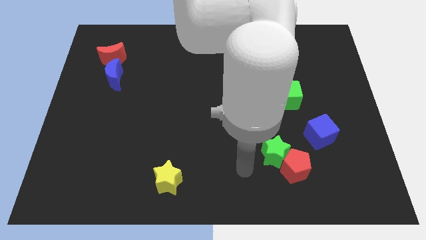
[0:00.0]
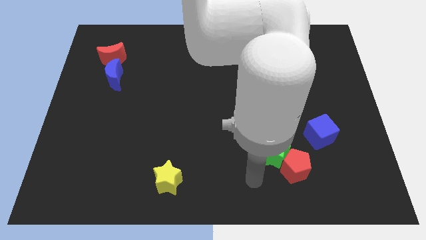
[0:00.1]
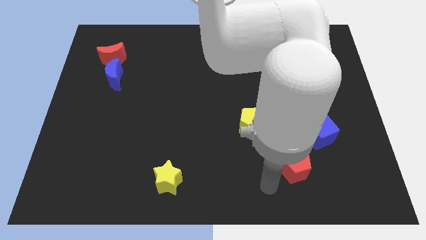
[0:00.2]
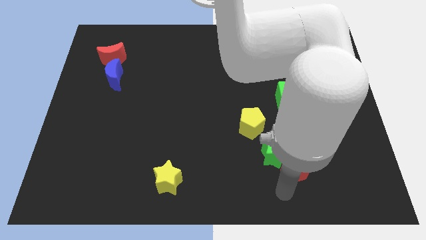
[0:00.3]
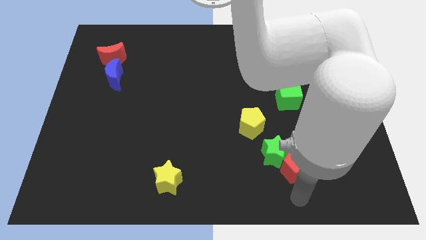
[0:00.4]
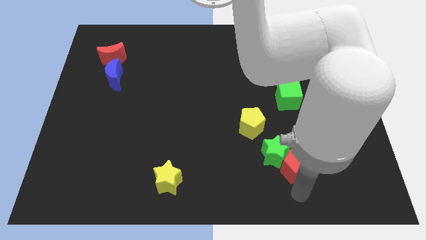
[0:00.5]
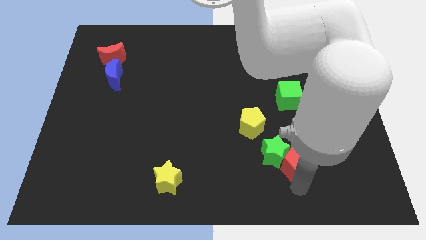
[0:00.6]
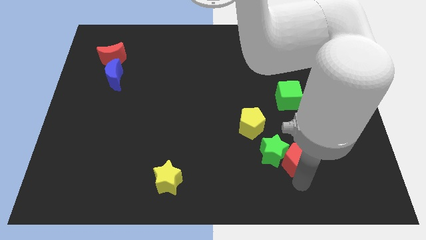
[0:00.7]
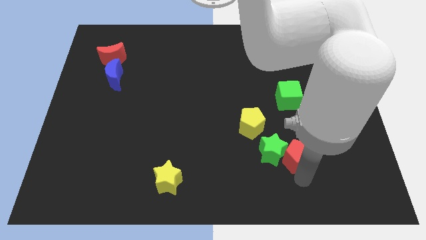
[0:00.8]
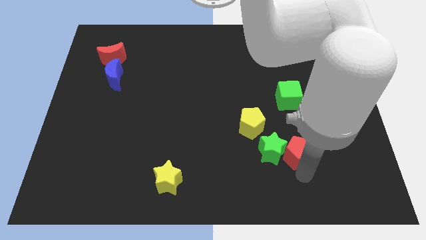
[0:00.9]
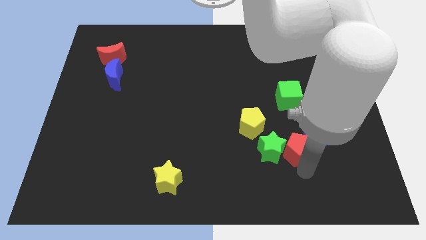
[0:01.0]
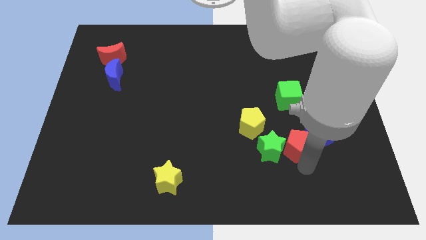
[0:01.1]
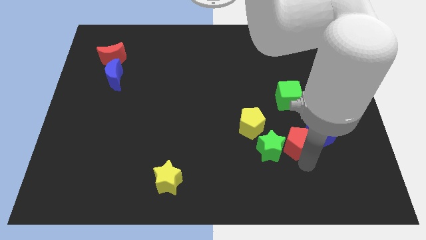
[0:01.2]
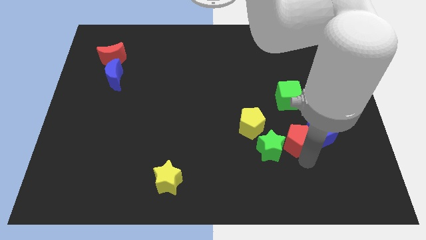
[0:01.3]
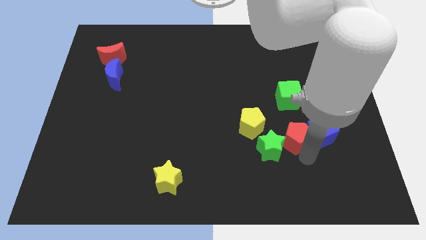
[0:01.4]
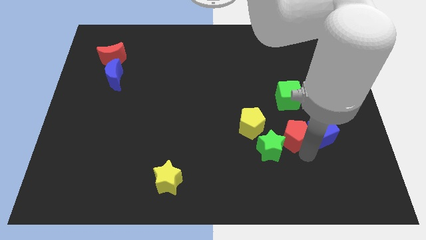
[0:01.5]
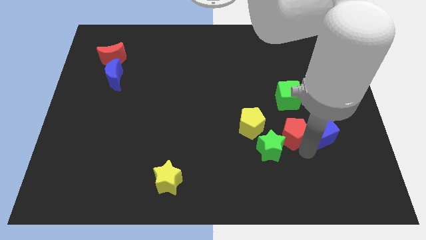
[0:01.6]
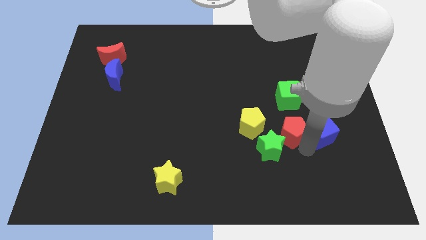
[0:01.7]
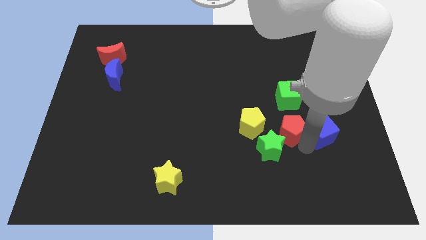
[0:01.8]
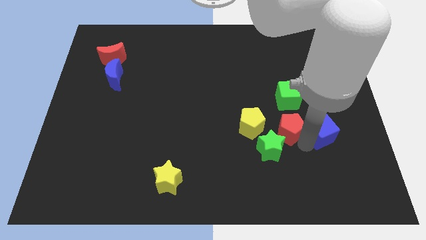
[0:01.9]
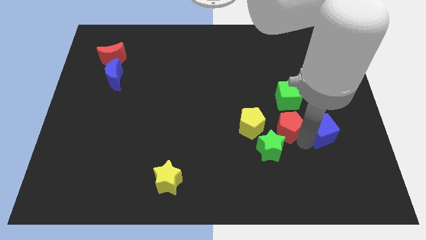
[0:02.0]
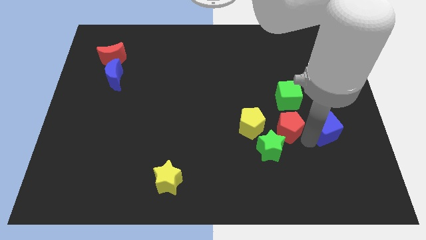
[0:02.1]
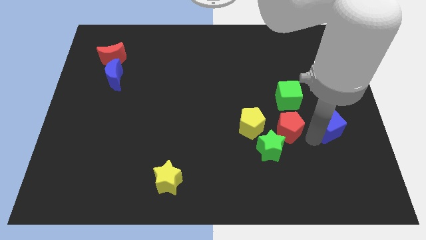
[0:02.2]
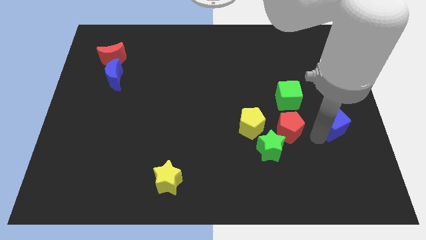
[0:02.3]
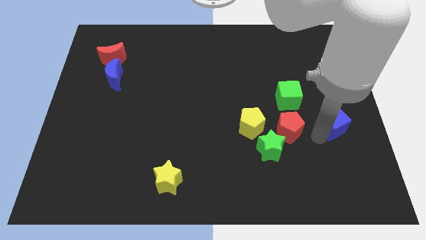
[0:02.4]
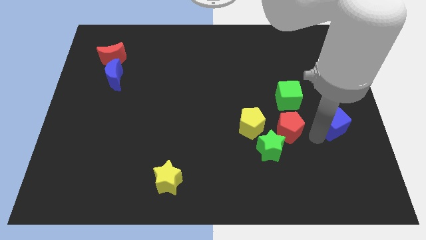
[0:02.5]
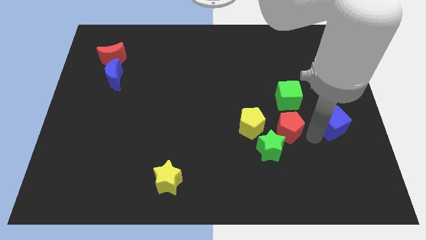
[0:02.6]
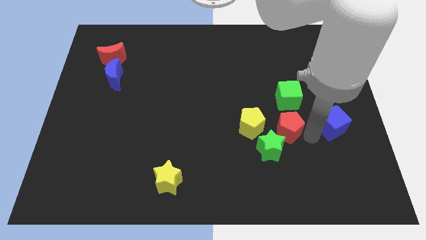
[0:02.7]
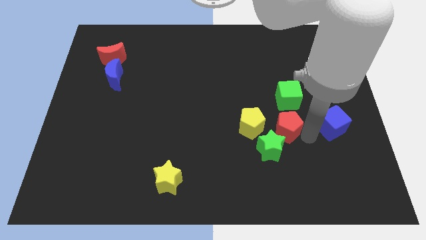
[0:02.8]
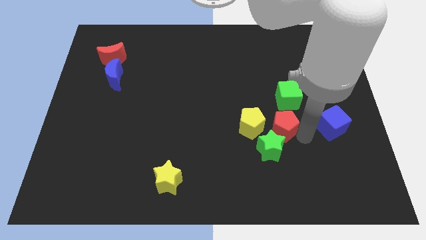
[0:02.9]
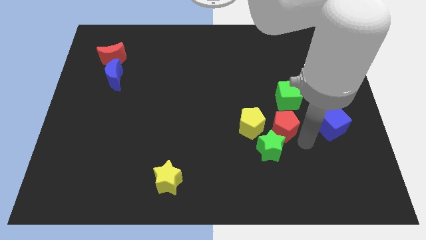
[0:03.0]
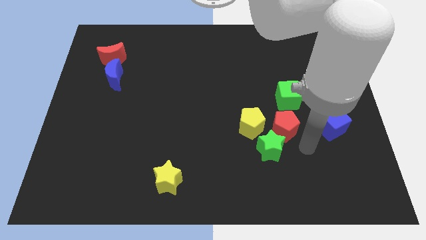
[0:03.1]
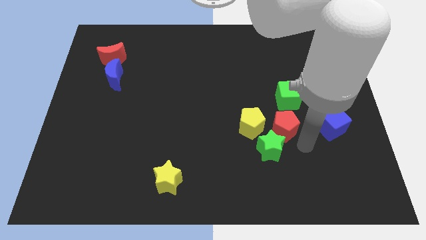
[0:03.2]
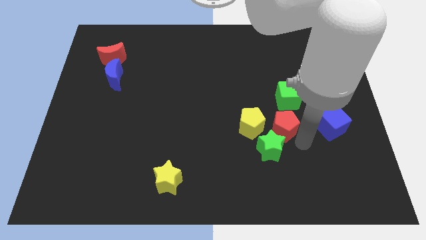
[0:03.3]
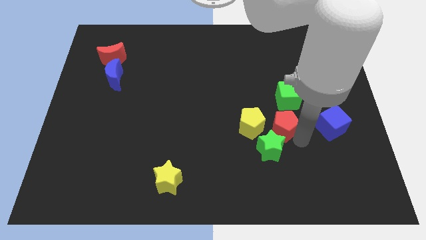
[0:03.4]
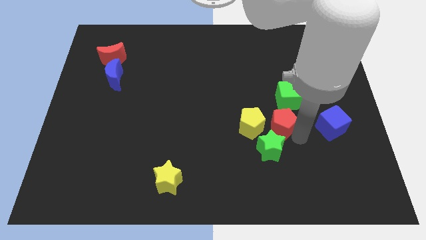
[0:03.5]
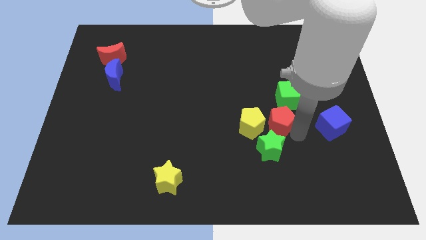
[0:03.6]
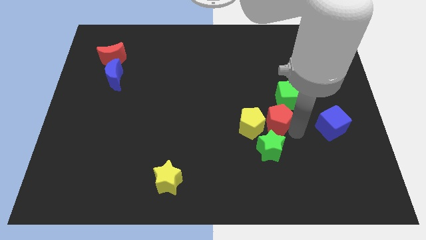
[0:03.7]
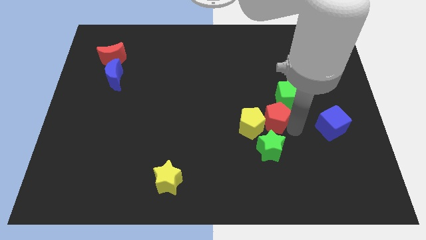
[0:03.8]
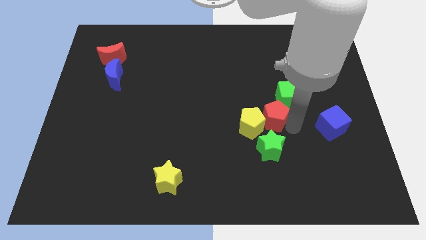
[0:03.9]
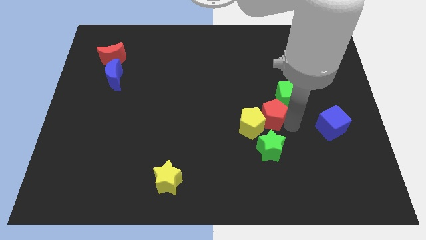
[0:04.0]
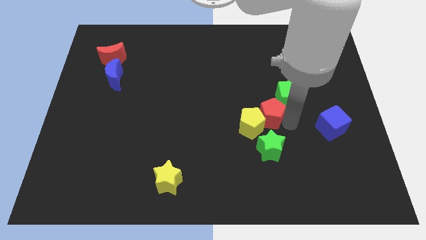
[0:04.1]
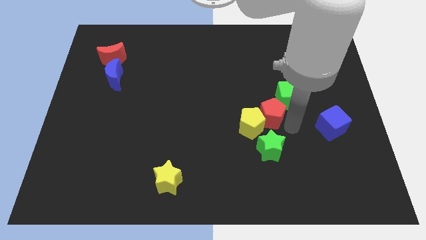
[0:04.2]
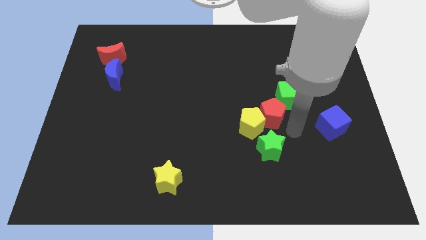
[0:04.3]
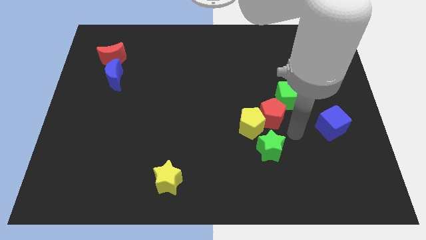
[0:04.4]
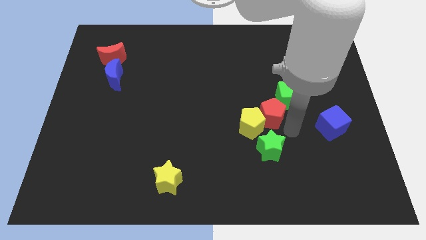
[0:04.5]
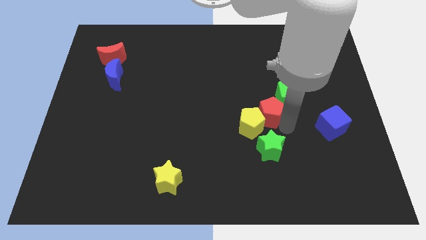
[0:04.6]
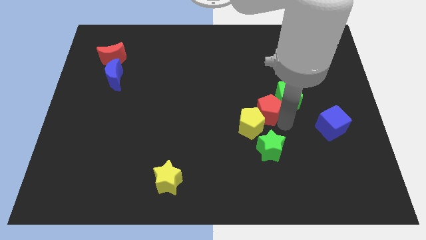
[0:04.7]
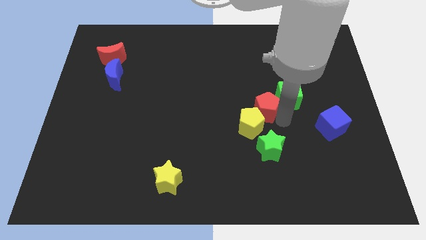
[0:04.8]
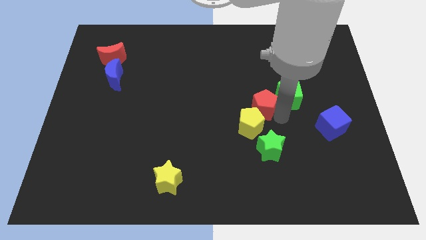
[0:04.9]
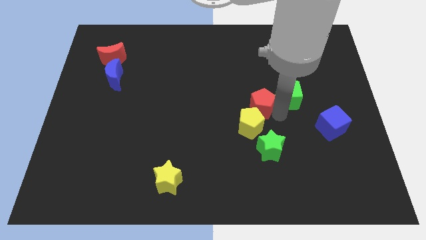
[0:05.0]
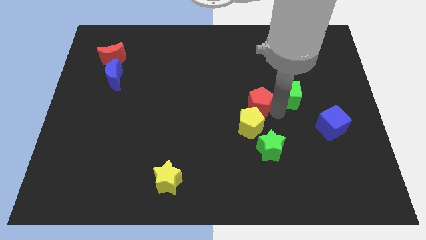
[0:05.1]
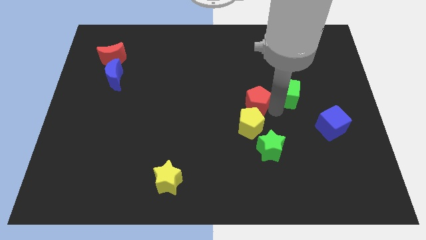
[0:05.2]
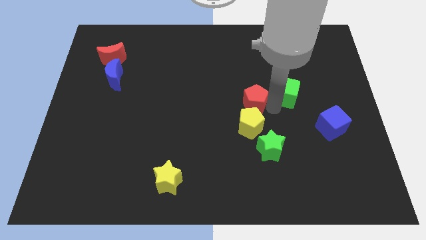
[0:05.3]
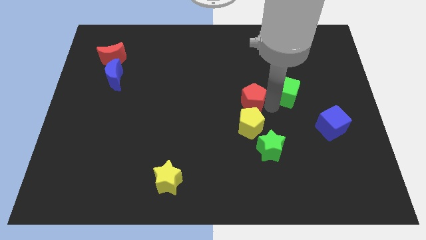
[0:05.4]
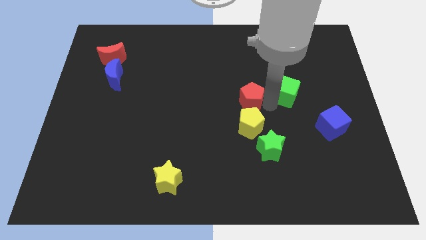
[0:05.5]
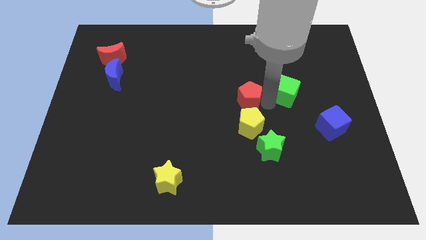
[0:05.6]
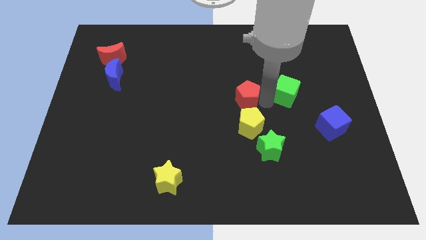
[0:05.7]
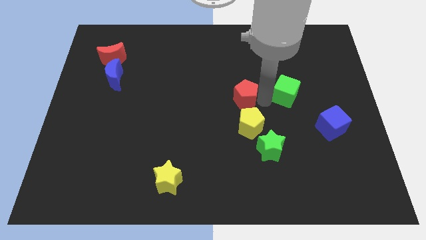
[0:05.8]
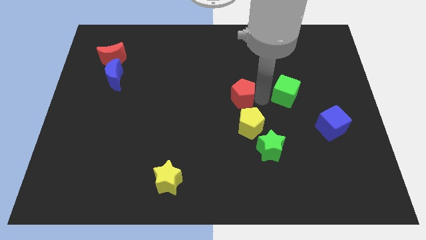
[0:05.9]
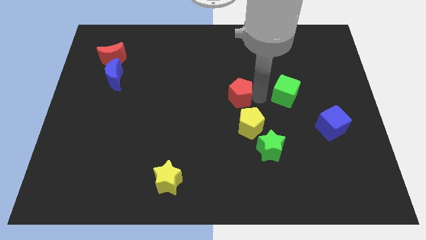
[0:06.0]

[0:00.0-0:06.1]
slide the red pentagon diagonally upwards and to the left

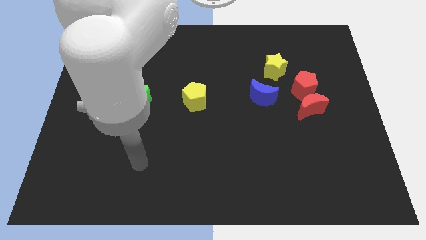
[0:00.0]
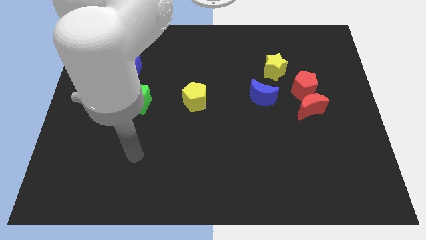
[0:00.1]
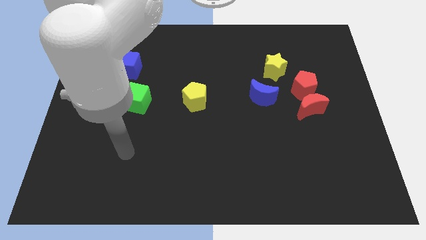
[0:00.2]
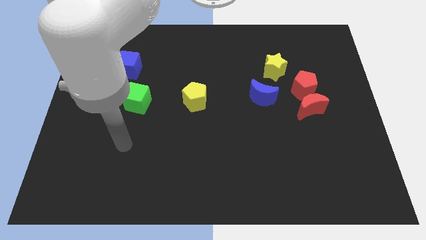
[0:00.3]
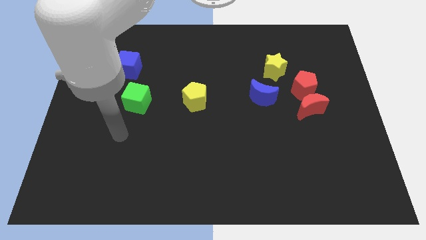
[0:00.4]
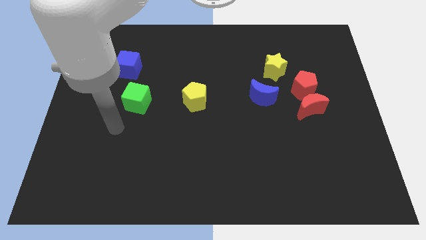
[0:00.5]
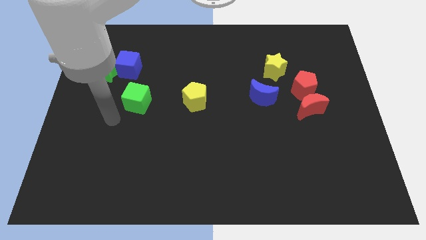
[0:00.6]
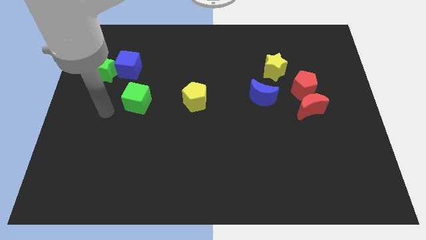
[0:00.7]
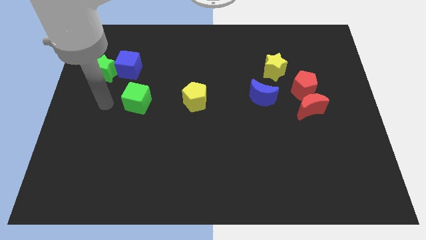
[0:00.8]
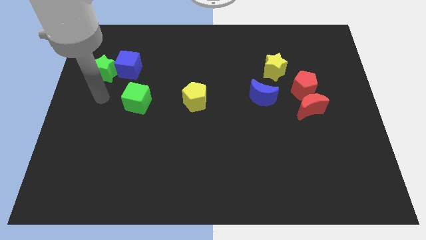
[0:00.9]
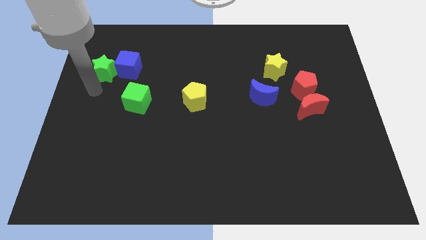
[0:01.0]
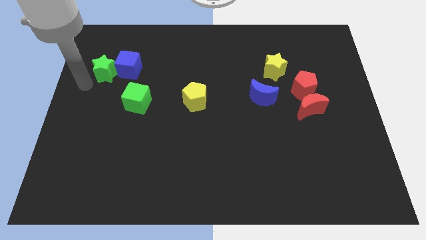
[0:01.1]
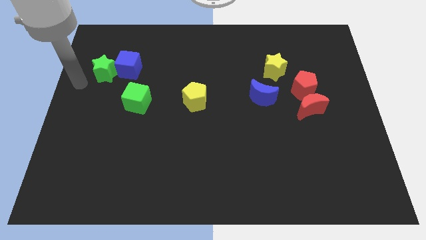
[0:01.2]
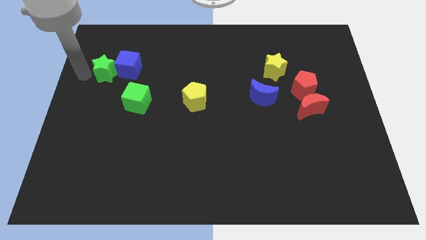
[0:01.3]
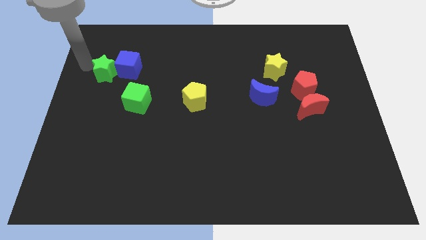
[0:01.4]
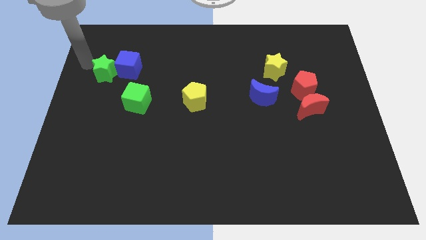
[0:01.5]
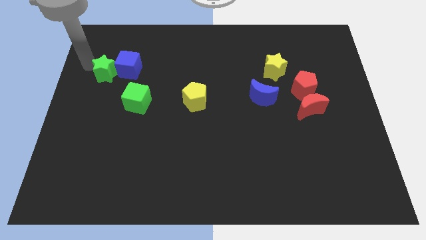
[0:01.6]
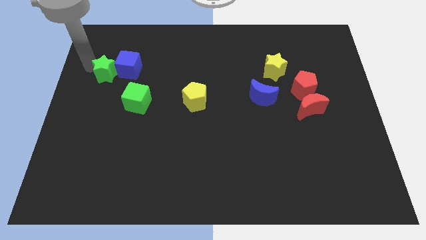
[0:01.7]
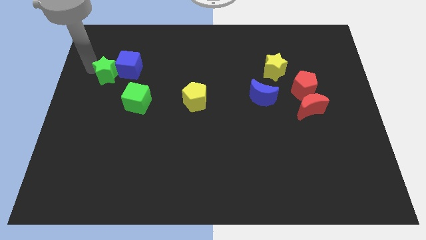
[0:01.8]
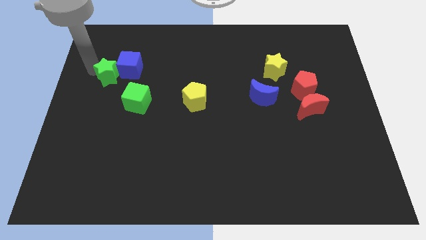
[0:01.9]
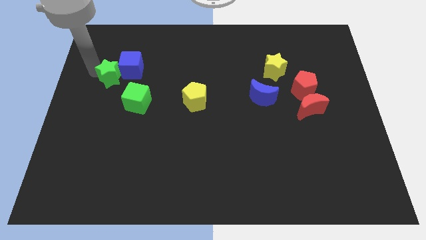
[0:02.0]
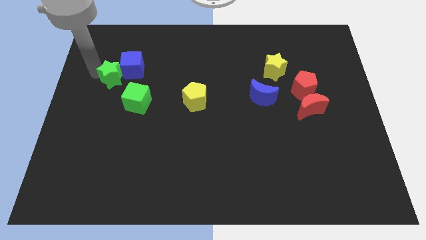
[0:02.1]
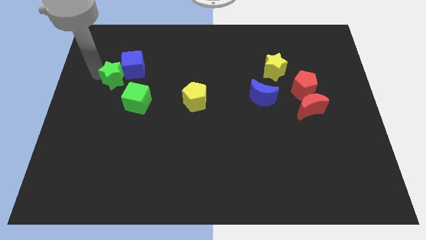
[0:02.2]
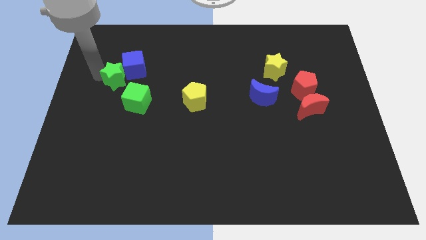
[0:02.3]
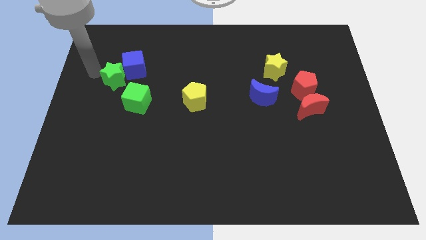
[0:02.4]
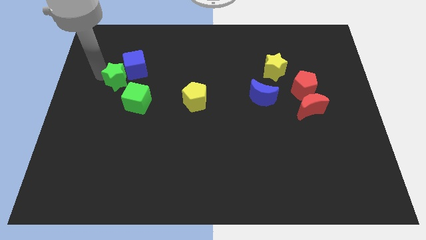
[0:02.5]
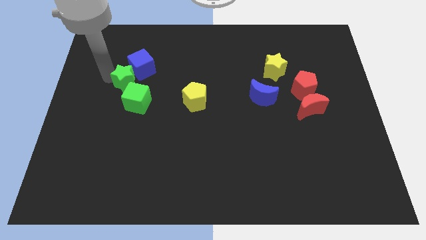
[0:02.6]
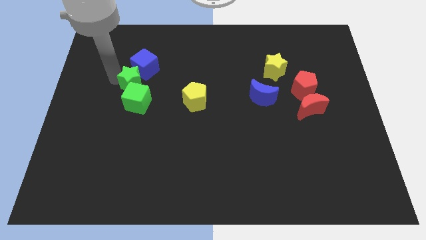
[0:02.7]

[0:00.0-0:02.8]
slide the green star diagonally downwards and to the right a bit
